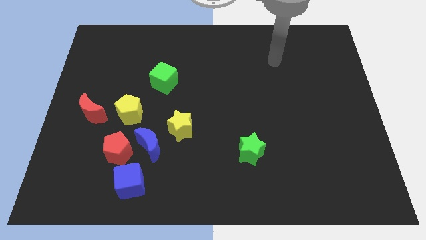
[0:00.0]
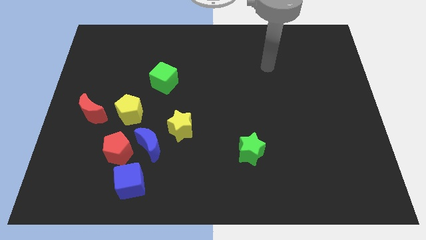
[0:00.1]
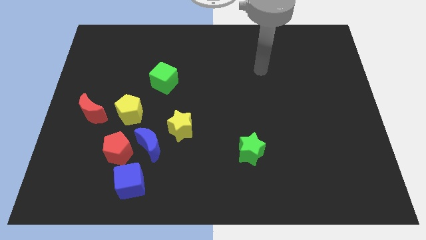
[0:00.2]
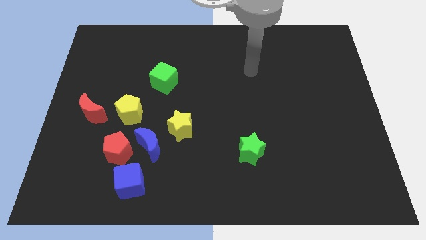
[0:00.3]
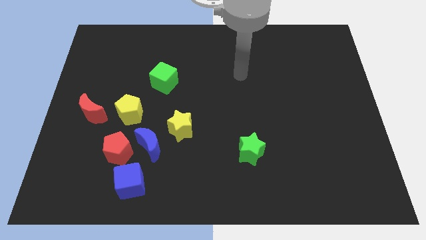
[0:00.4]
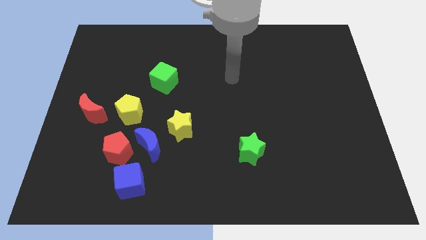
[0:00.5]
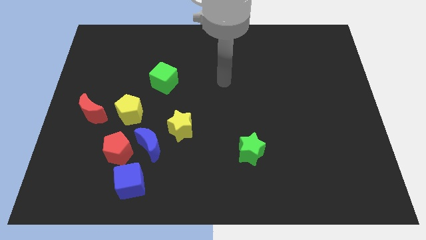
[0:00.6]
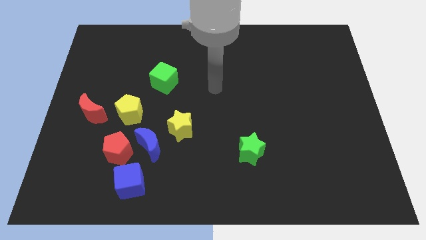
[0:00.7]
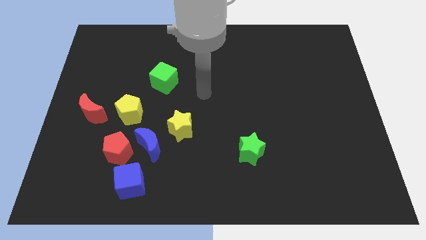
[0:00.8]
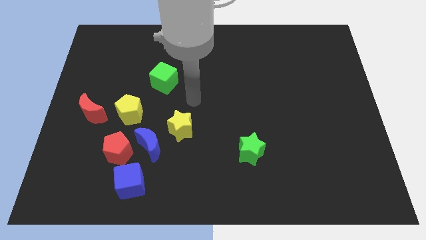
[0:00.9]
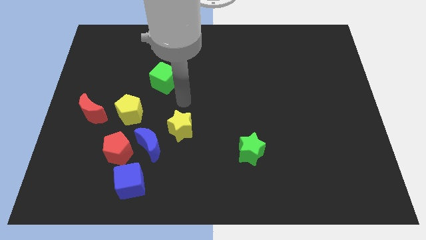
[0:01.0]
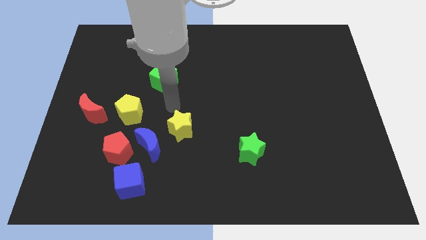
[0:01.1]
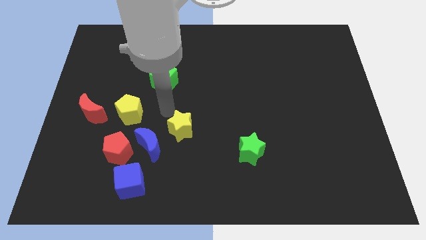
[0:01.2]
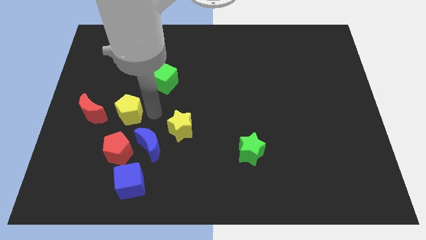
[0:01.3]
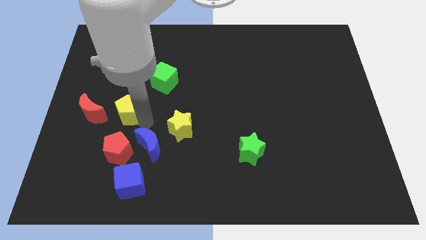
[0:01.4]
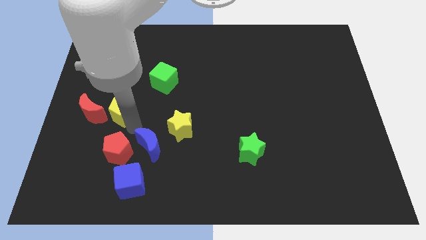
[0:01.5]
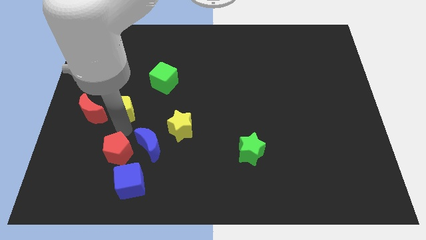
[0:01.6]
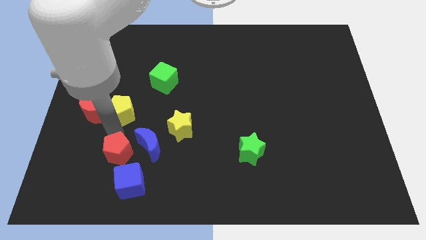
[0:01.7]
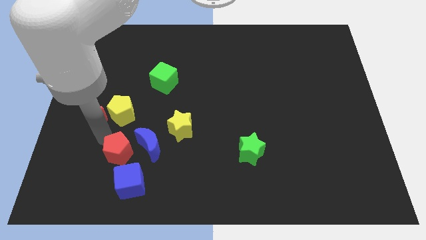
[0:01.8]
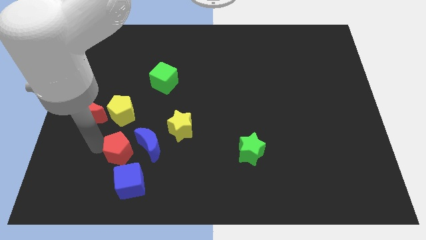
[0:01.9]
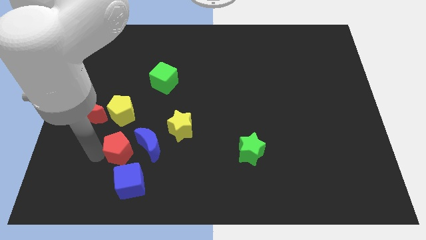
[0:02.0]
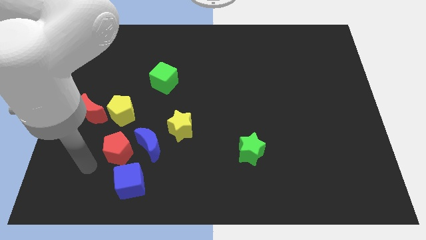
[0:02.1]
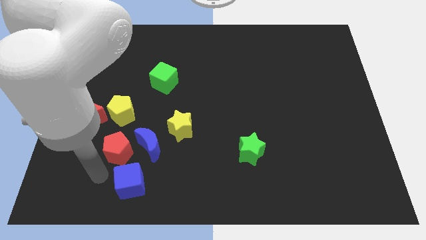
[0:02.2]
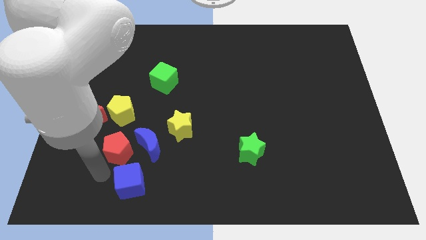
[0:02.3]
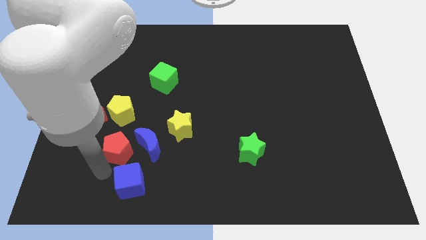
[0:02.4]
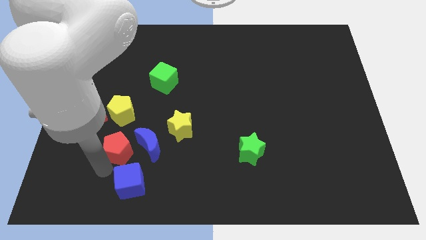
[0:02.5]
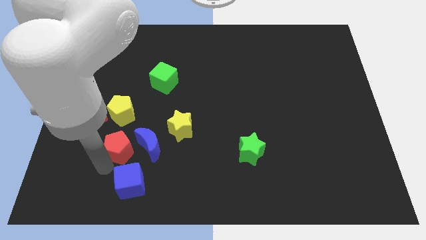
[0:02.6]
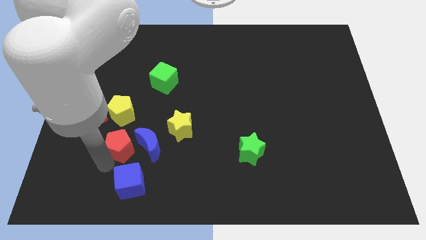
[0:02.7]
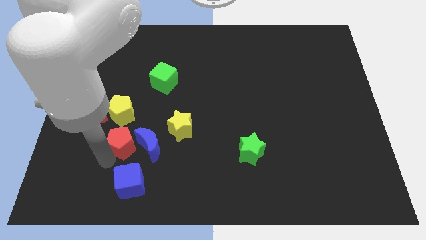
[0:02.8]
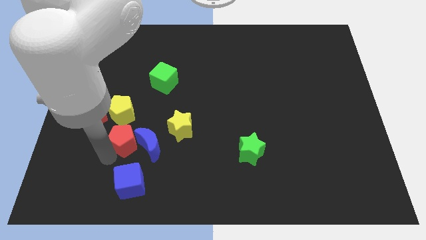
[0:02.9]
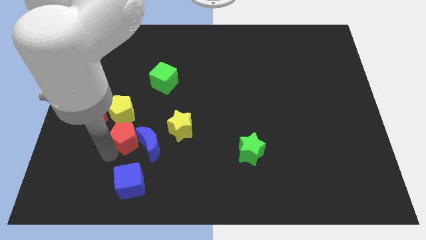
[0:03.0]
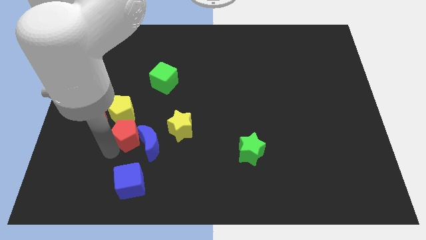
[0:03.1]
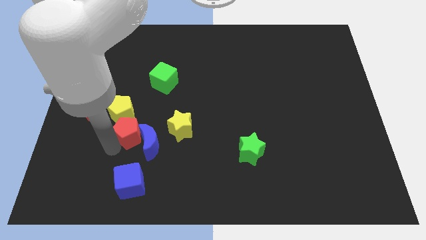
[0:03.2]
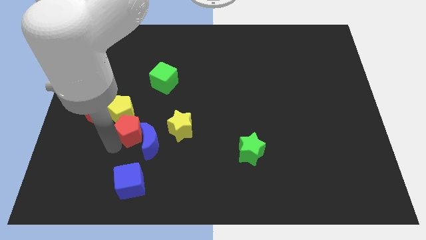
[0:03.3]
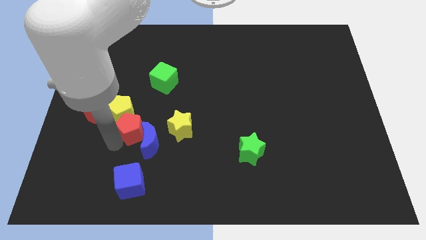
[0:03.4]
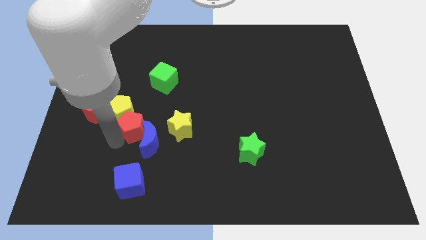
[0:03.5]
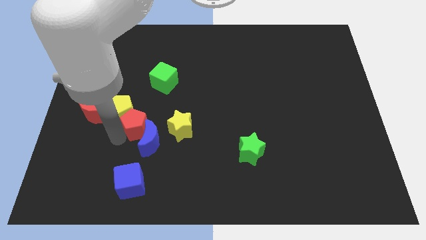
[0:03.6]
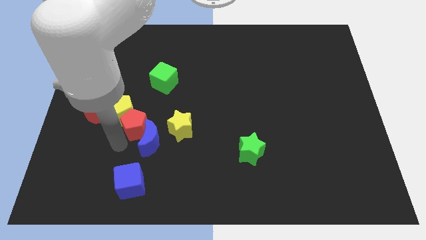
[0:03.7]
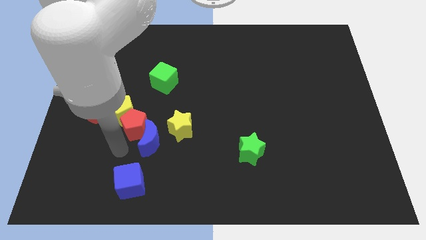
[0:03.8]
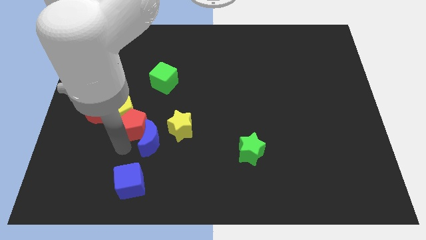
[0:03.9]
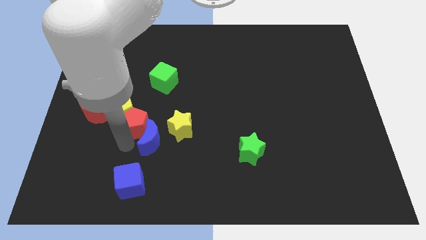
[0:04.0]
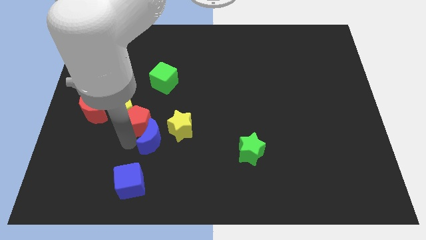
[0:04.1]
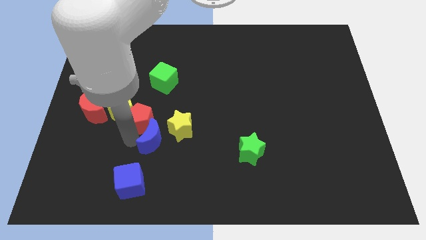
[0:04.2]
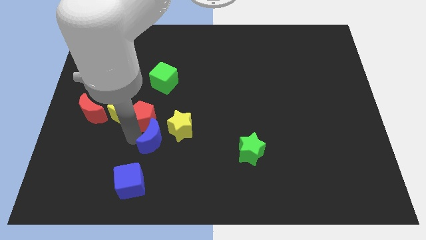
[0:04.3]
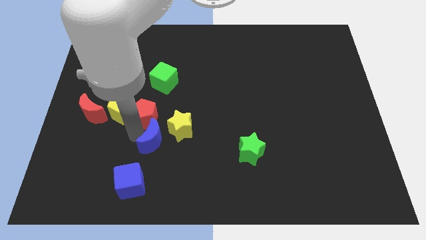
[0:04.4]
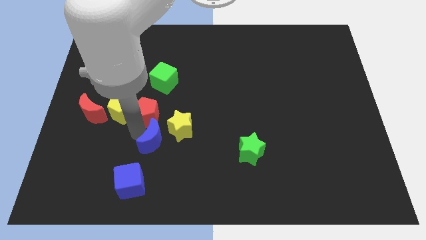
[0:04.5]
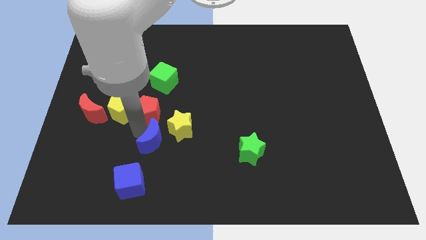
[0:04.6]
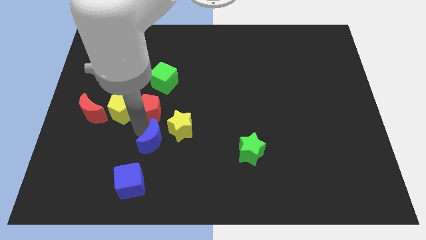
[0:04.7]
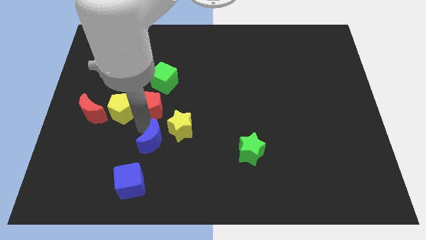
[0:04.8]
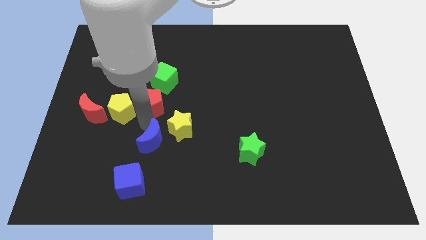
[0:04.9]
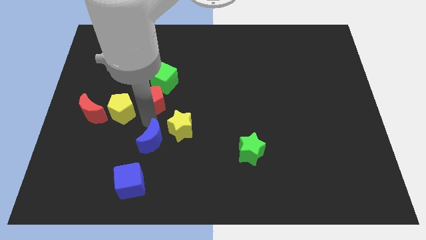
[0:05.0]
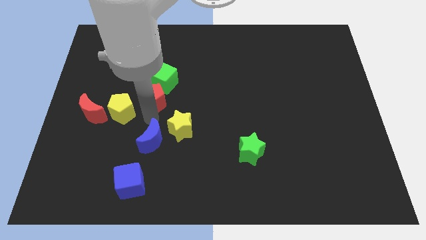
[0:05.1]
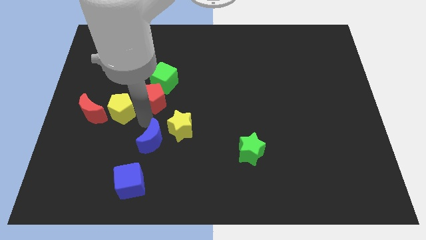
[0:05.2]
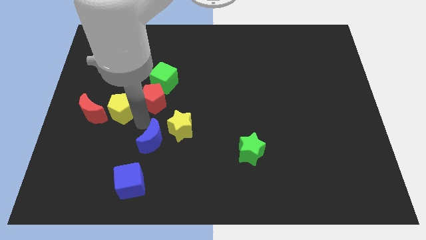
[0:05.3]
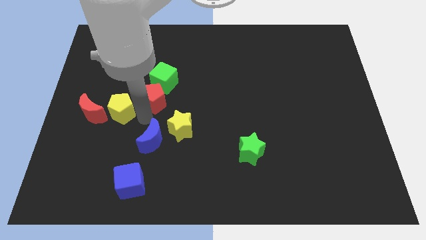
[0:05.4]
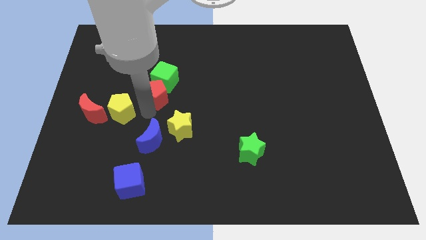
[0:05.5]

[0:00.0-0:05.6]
push the red pentagon next to the green cube

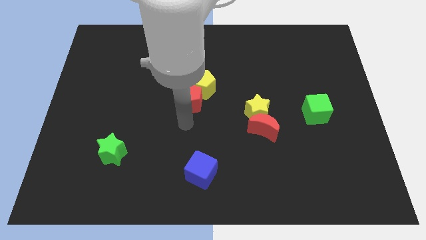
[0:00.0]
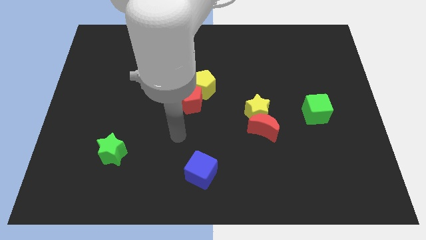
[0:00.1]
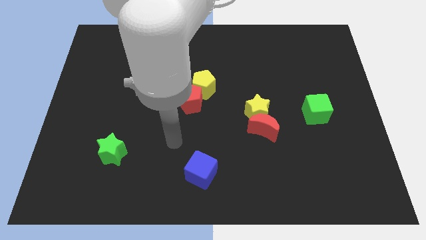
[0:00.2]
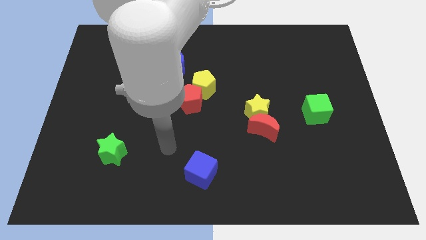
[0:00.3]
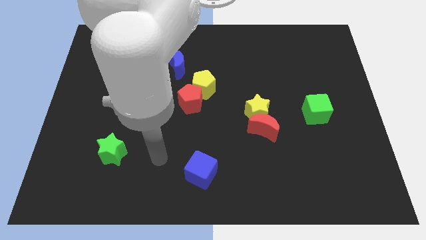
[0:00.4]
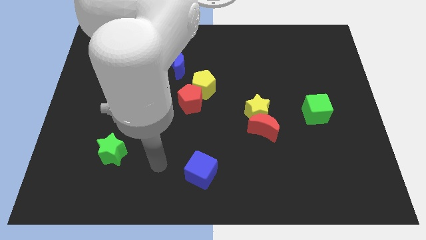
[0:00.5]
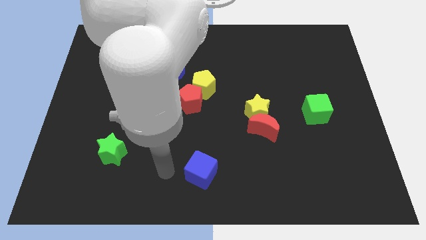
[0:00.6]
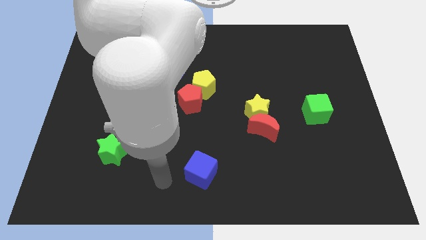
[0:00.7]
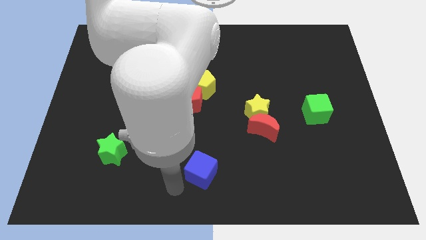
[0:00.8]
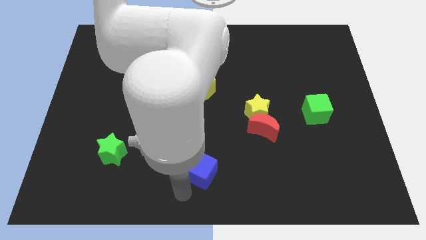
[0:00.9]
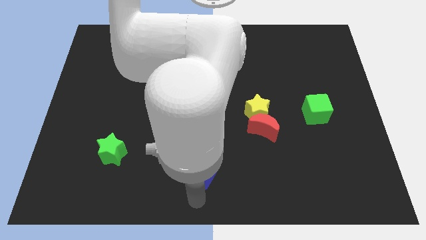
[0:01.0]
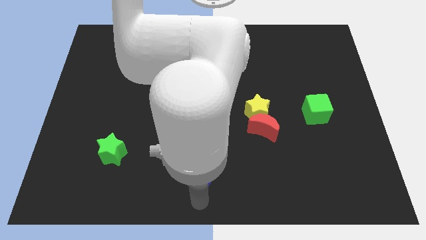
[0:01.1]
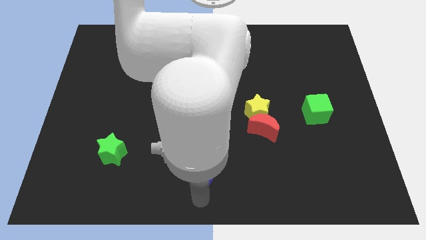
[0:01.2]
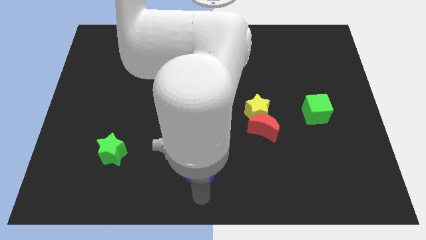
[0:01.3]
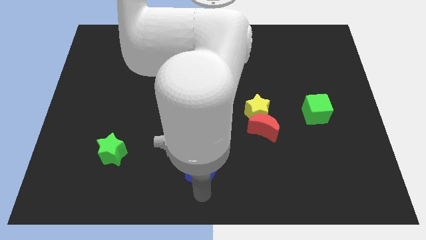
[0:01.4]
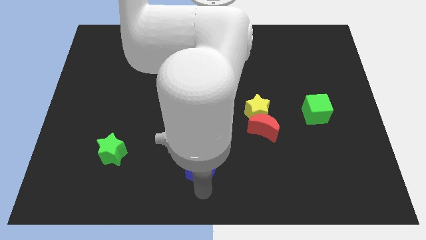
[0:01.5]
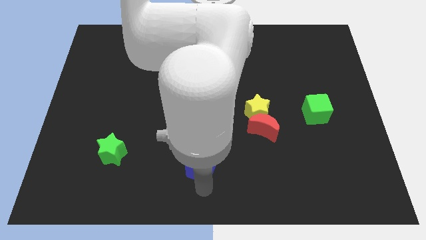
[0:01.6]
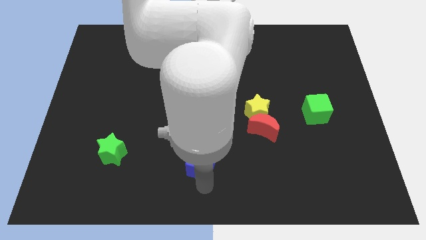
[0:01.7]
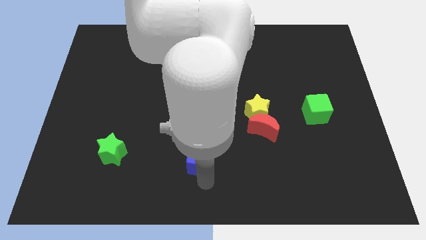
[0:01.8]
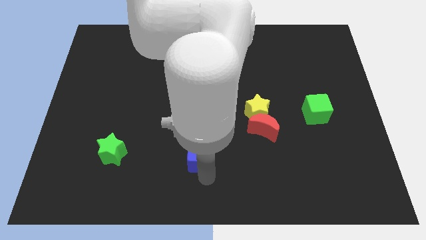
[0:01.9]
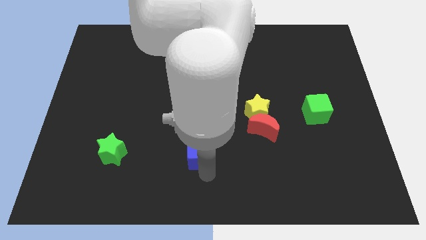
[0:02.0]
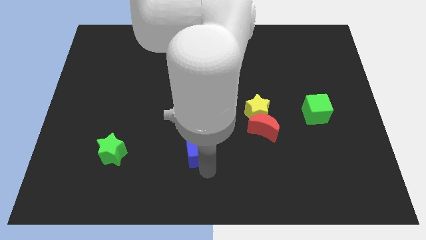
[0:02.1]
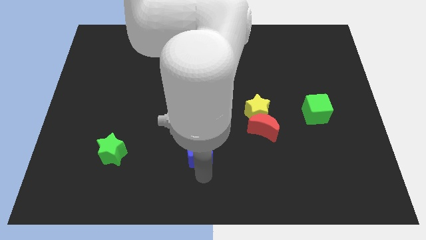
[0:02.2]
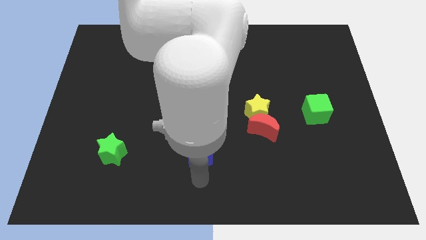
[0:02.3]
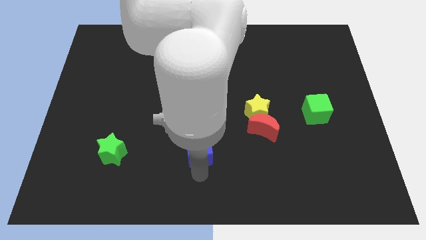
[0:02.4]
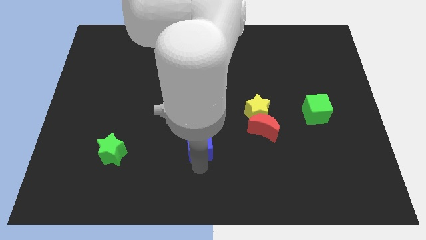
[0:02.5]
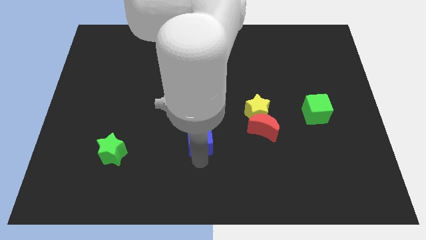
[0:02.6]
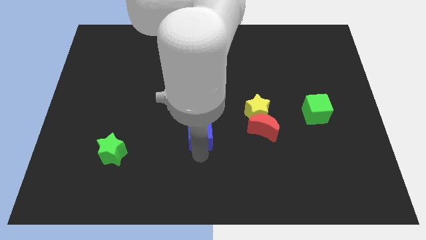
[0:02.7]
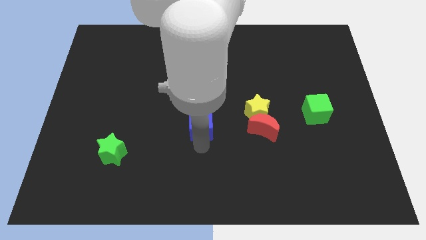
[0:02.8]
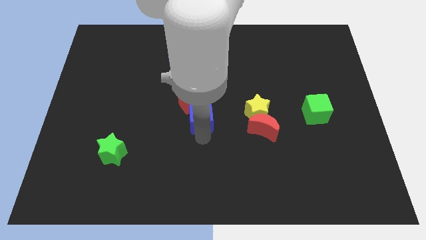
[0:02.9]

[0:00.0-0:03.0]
move the blue cube to the red pentagon
